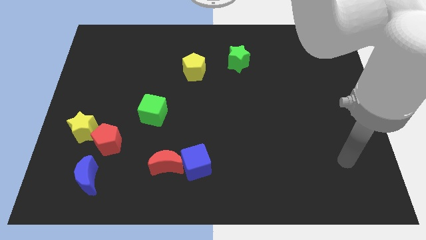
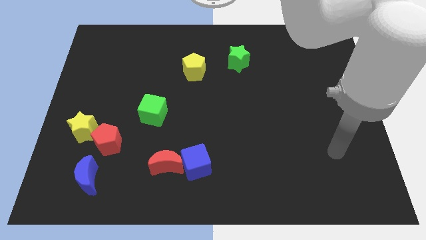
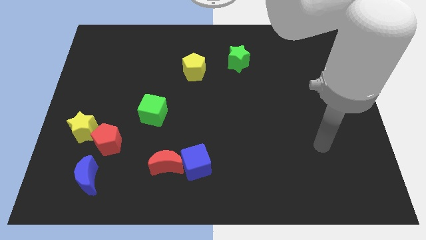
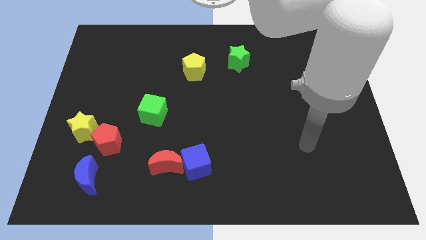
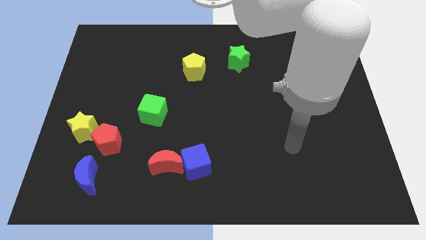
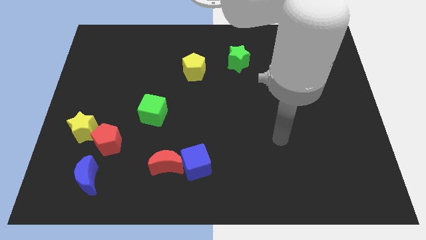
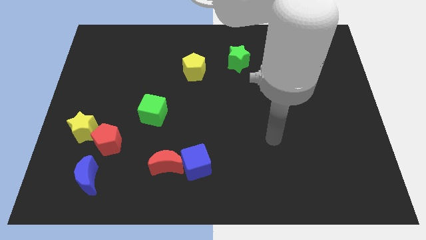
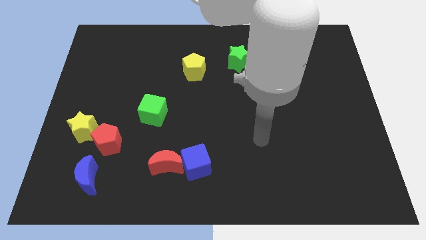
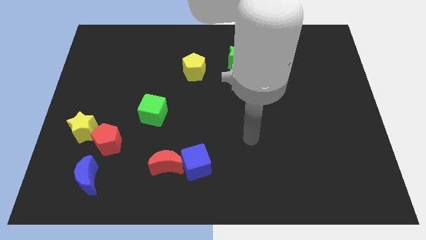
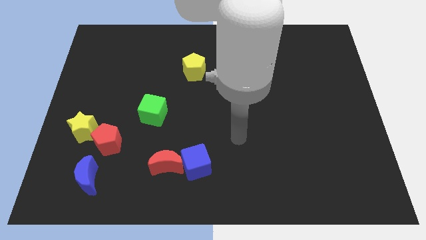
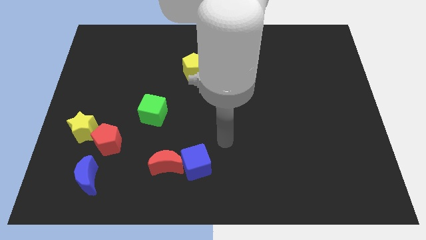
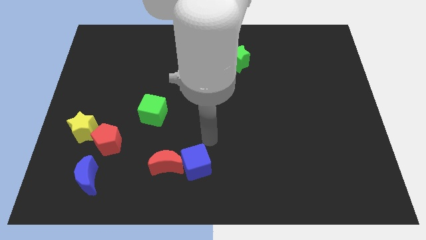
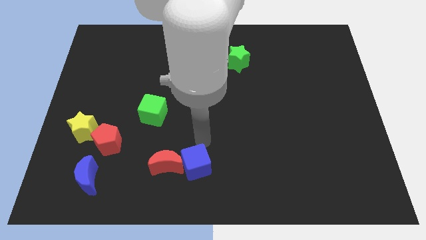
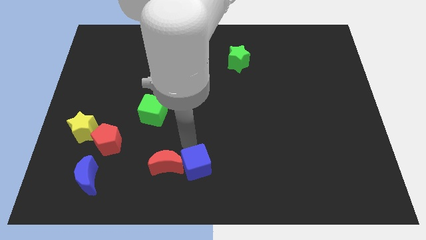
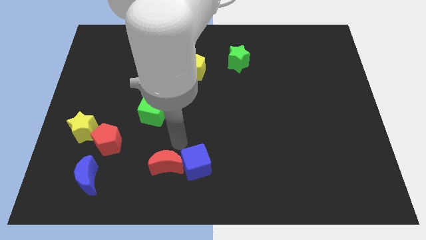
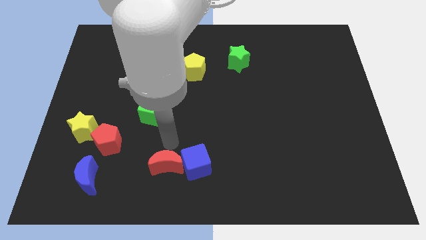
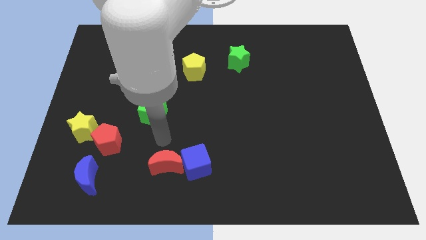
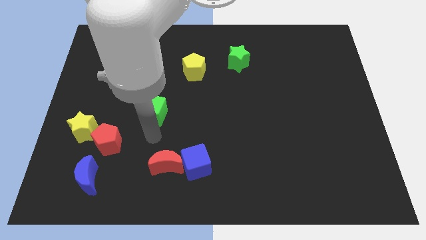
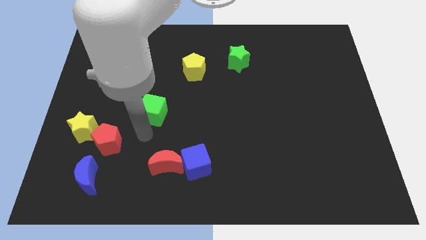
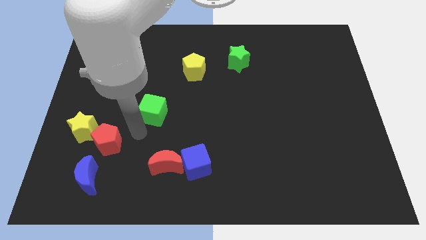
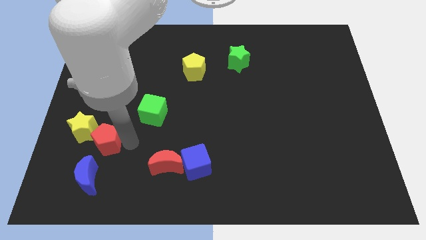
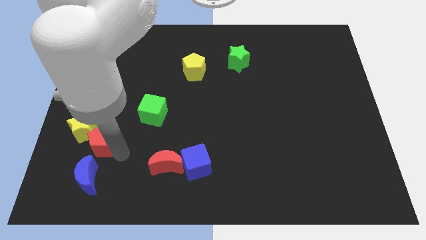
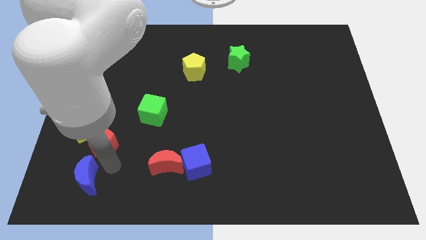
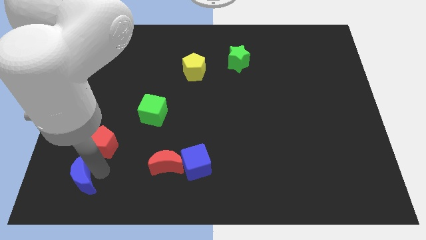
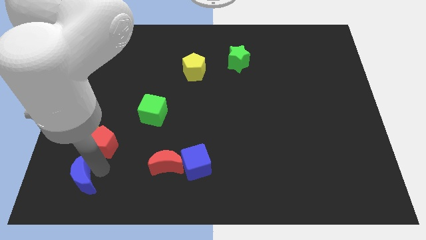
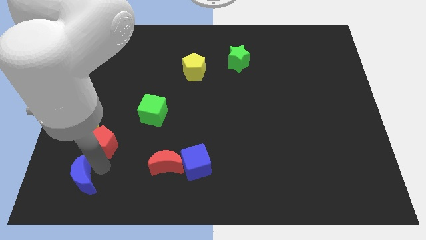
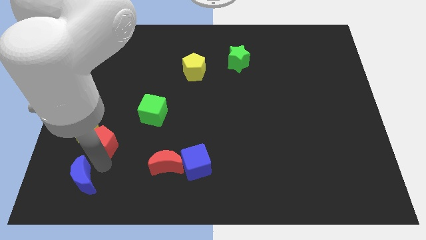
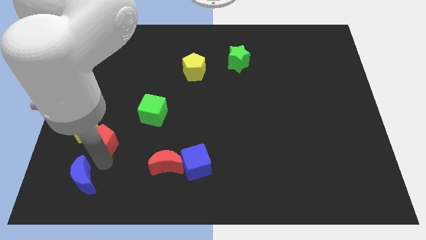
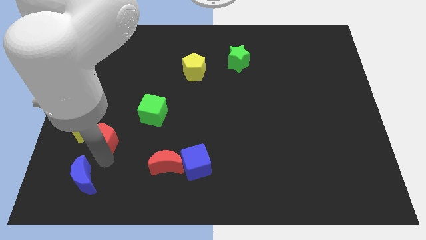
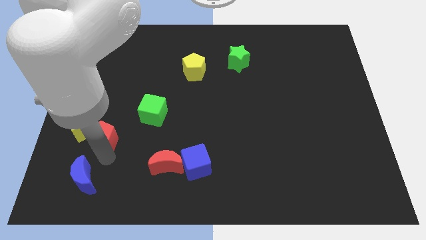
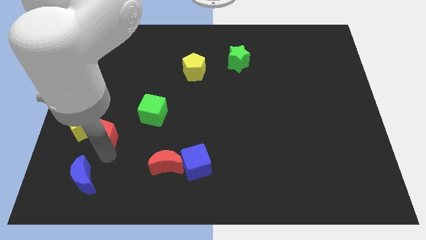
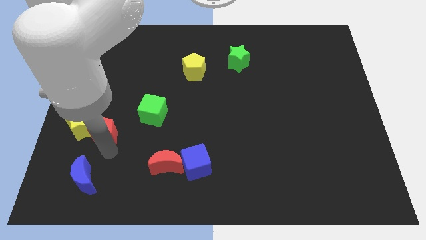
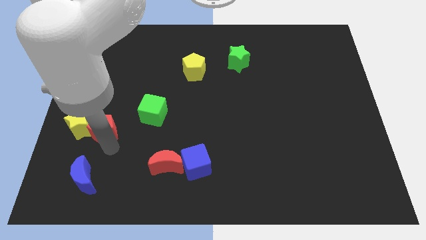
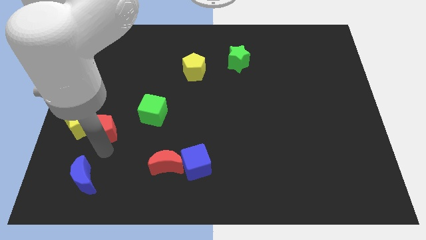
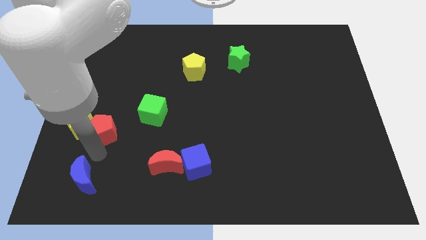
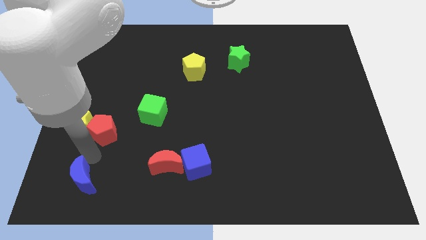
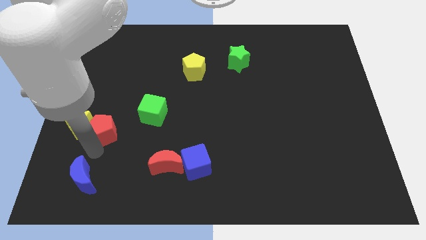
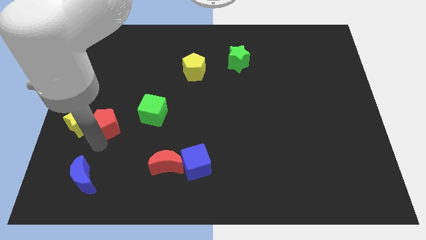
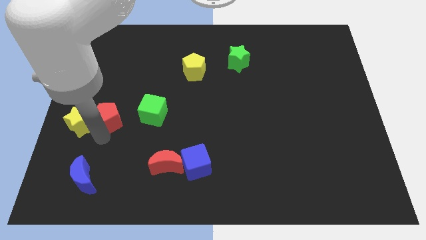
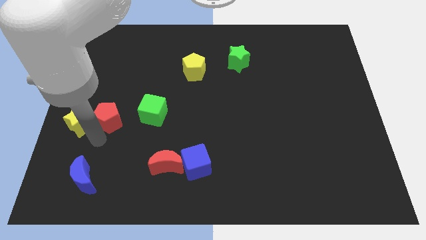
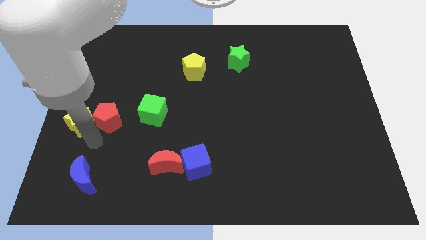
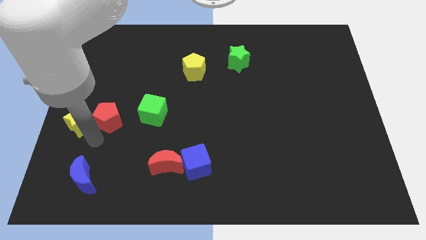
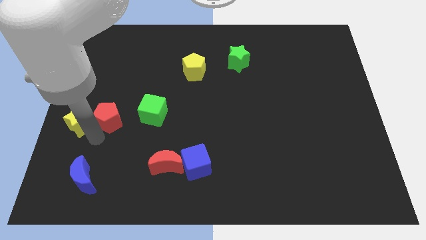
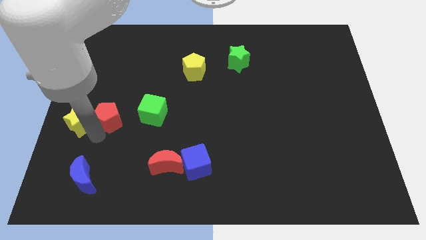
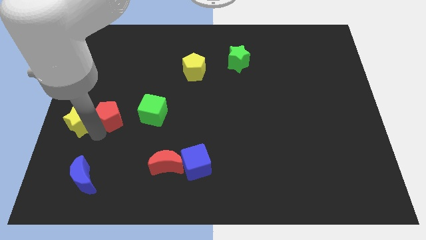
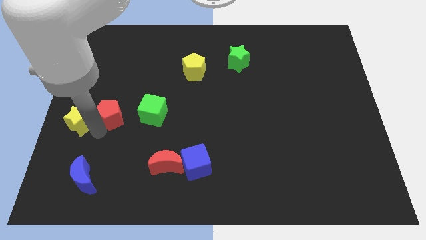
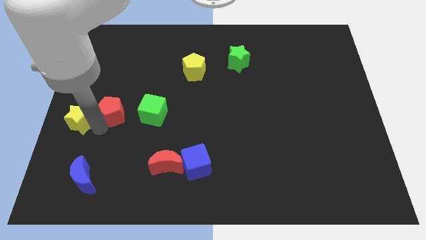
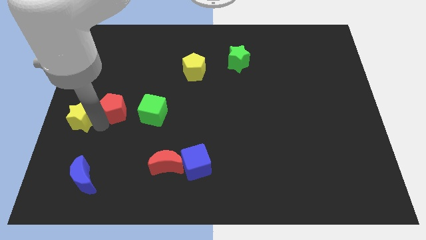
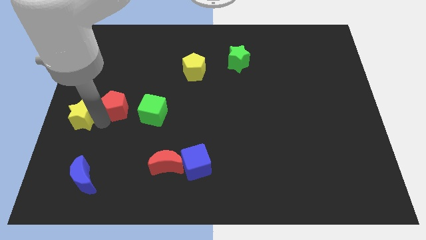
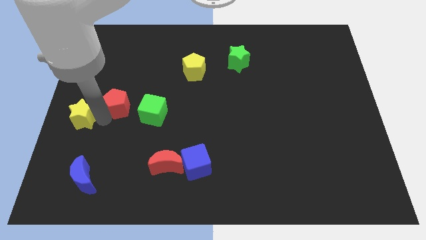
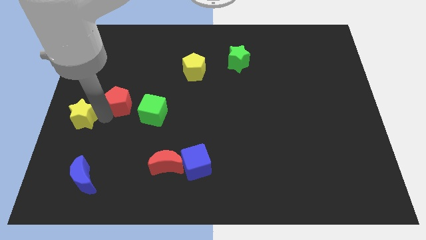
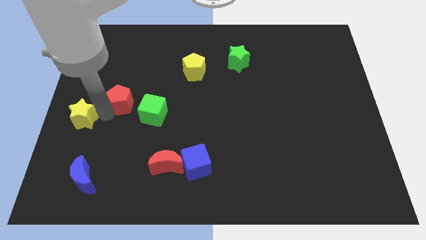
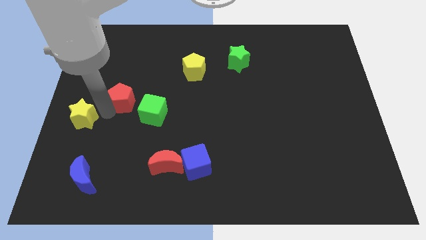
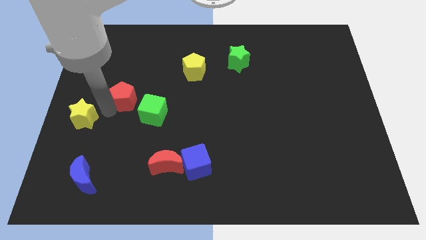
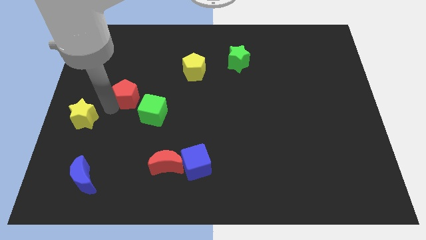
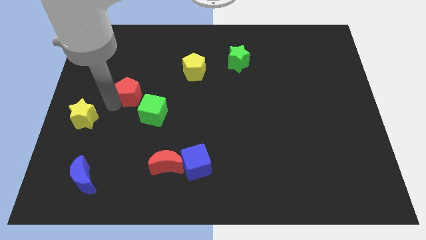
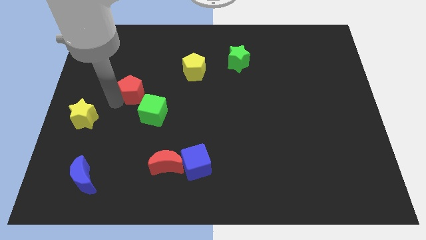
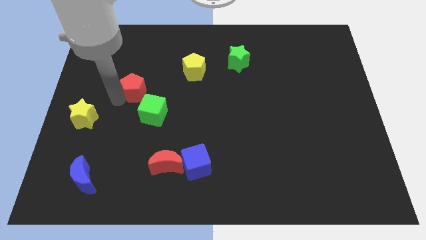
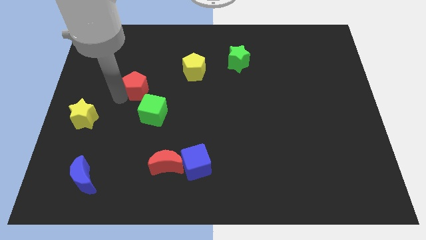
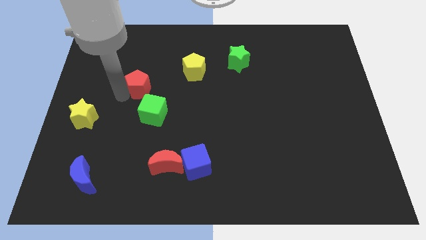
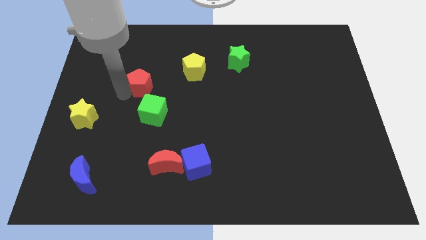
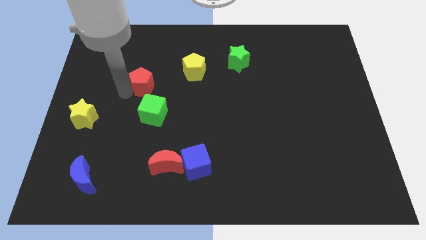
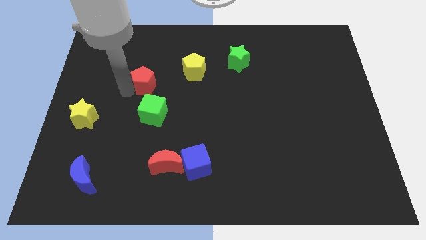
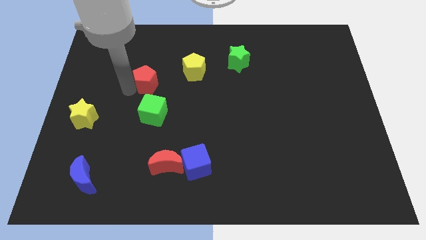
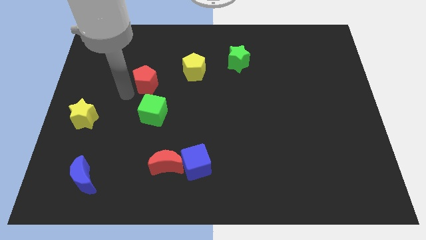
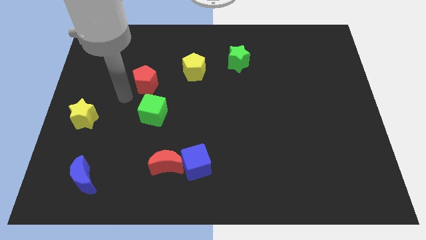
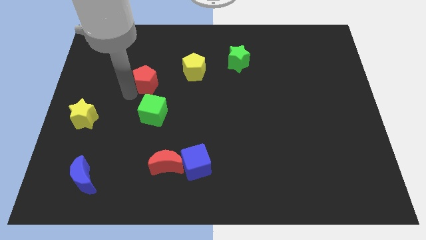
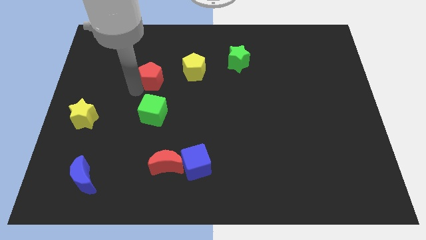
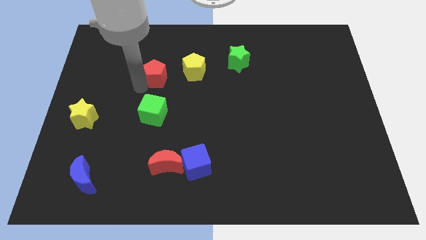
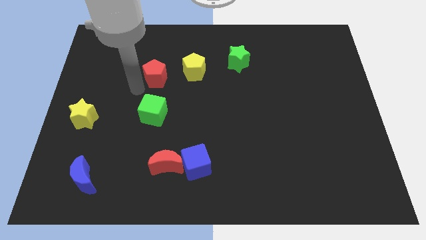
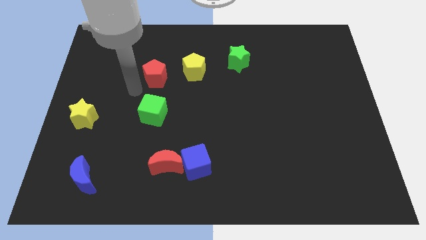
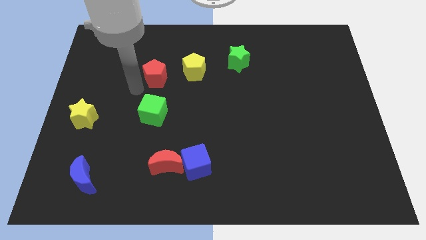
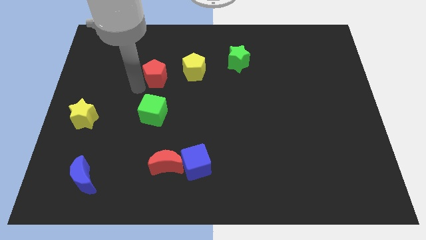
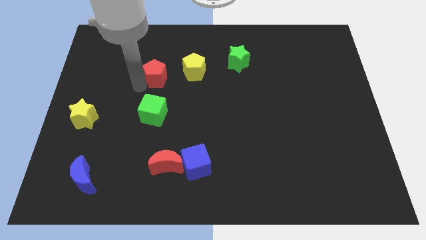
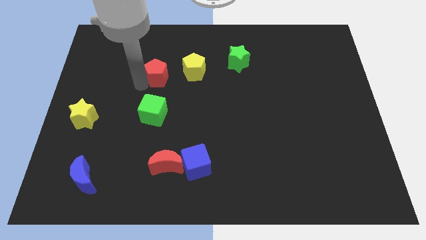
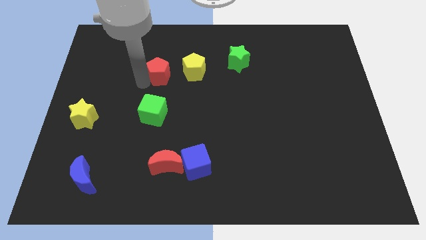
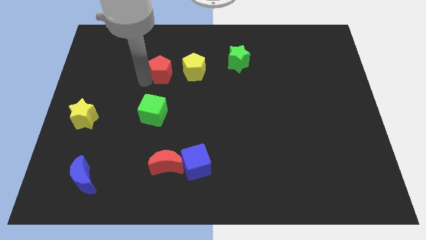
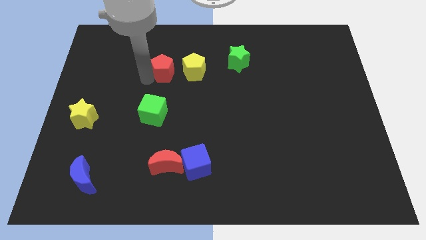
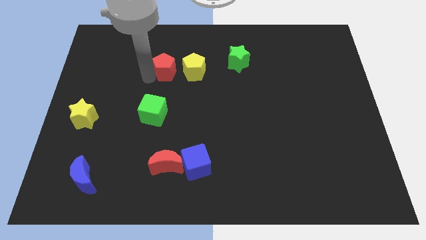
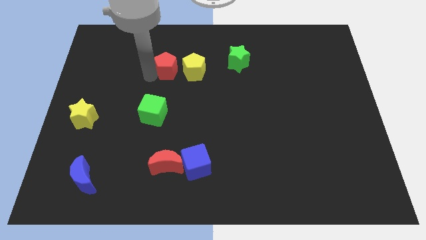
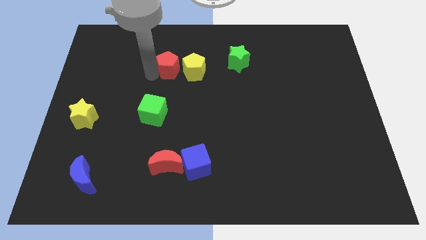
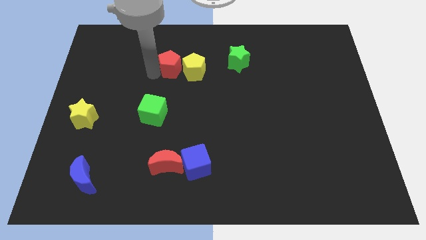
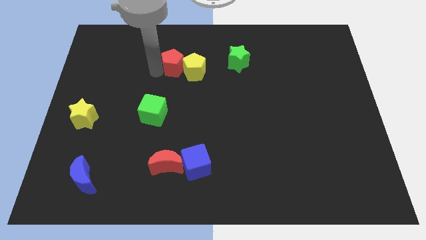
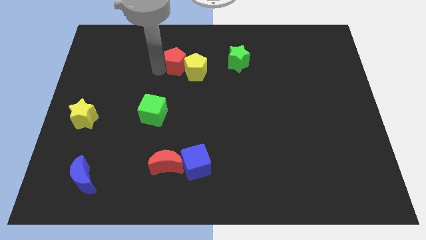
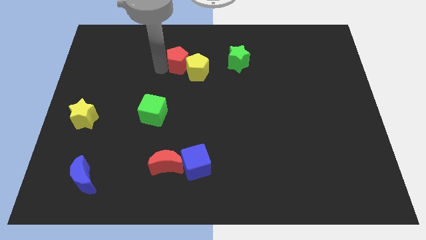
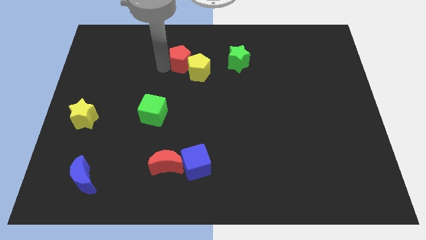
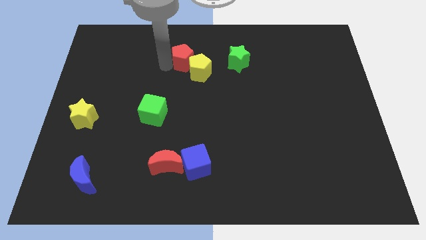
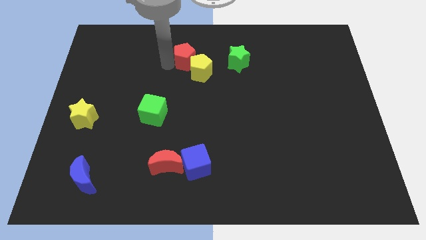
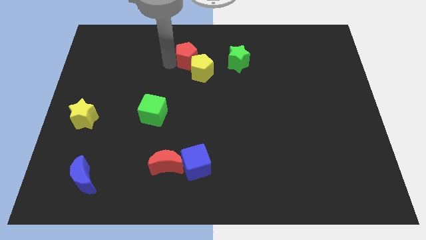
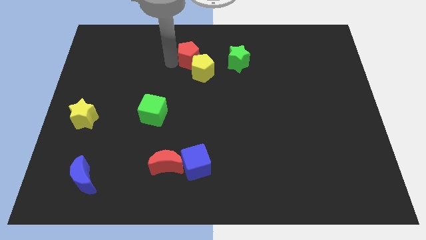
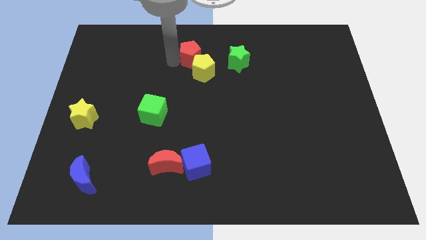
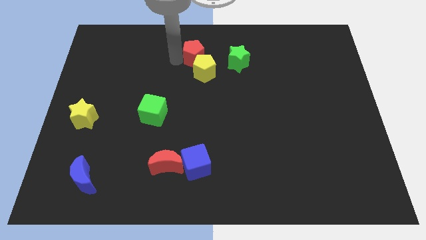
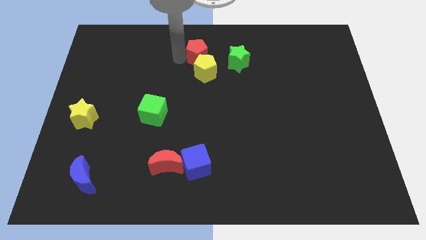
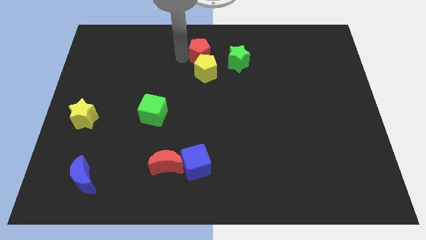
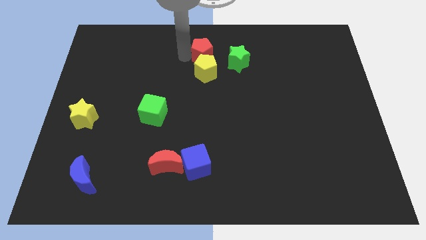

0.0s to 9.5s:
put the red pentagon to the top right side of the yellow pentagon
